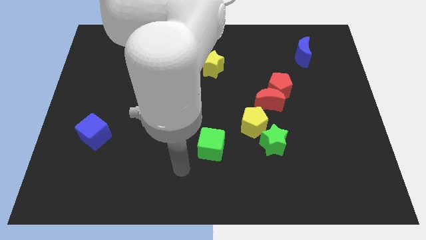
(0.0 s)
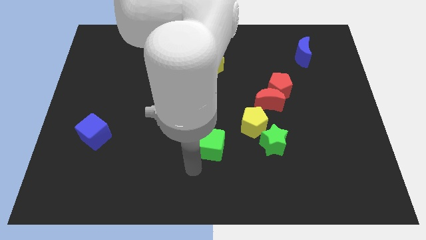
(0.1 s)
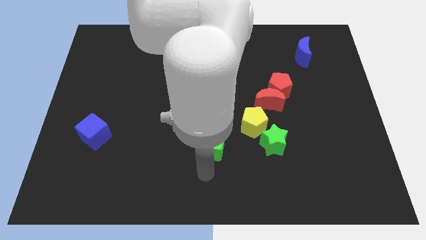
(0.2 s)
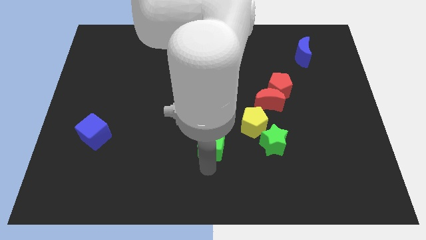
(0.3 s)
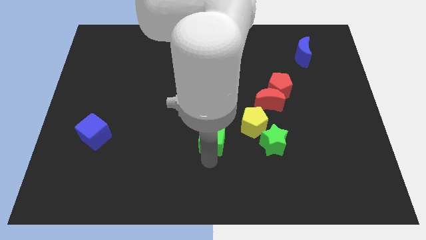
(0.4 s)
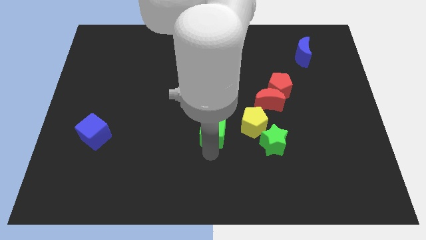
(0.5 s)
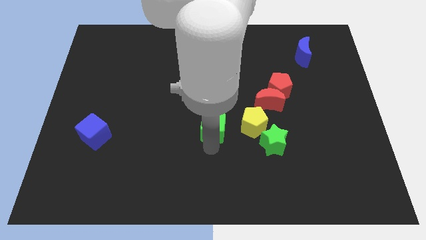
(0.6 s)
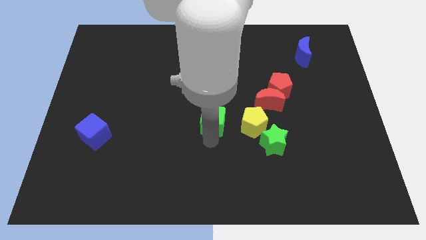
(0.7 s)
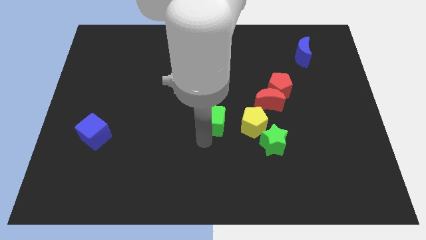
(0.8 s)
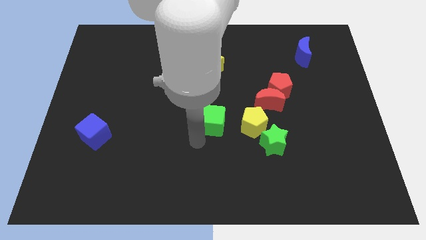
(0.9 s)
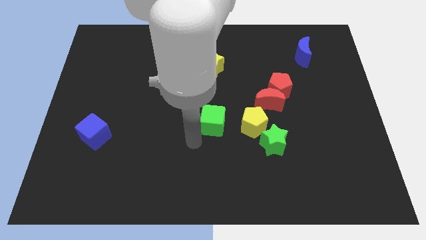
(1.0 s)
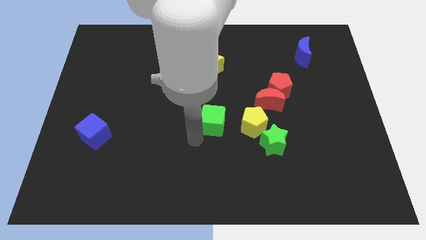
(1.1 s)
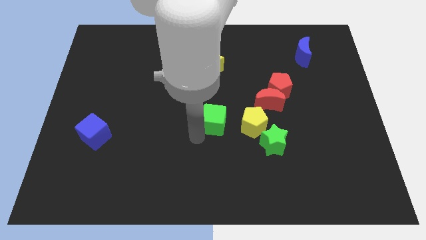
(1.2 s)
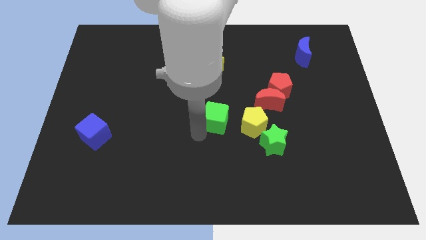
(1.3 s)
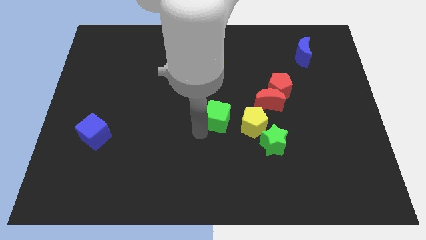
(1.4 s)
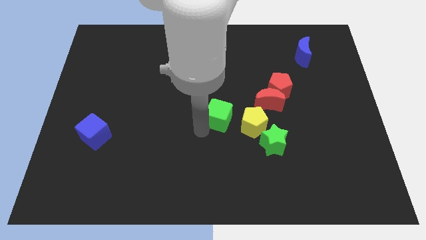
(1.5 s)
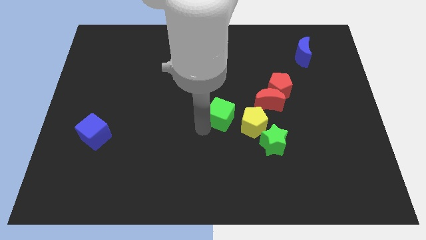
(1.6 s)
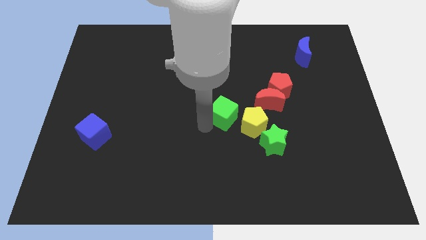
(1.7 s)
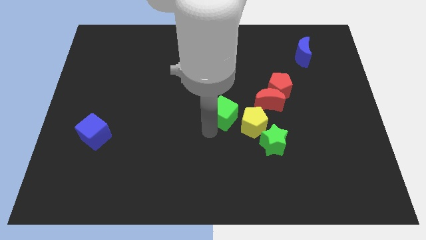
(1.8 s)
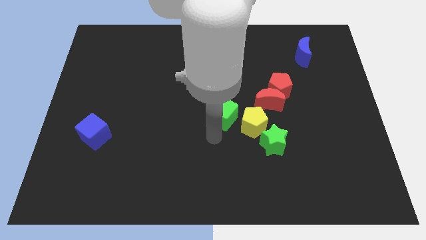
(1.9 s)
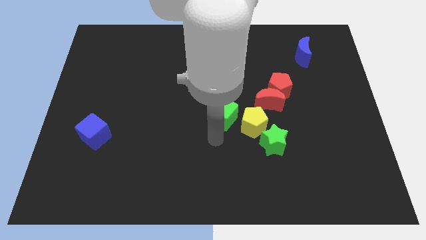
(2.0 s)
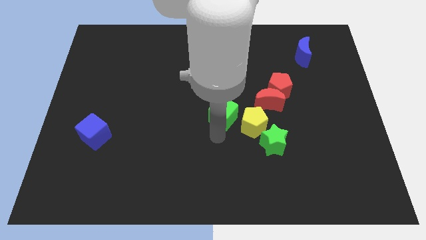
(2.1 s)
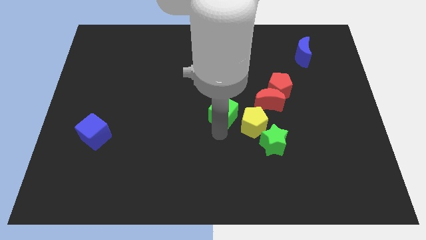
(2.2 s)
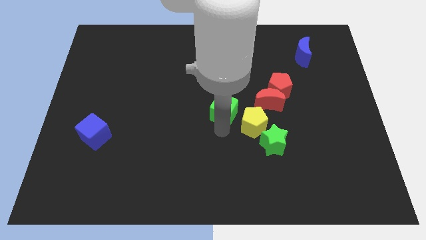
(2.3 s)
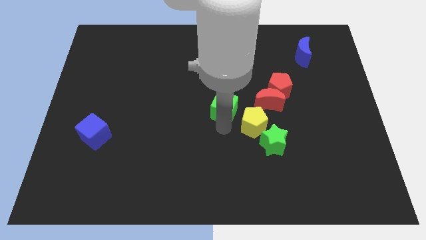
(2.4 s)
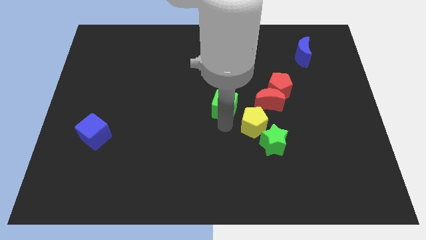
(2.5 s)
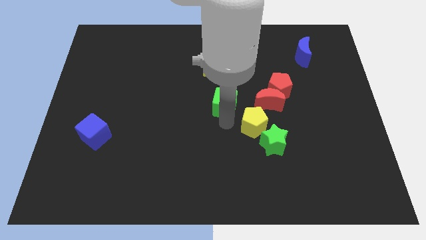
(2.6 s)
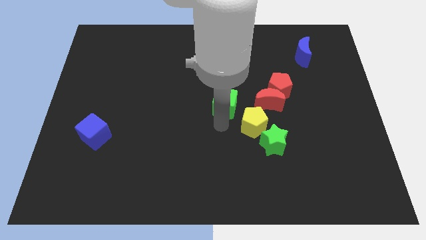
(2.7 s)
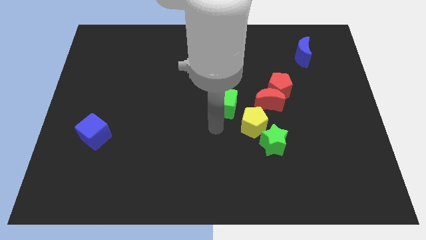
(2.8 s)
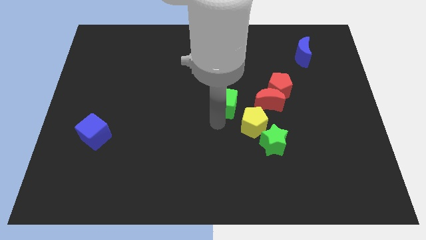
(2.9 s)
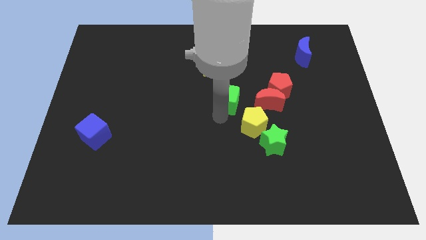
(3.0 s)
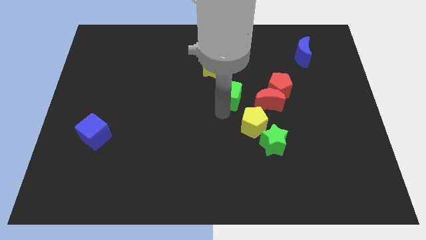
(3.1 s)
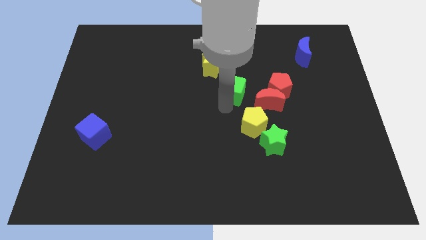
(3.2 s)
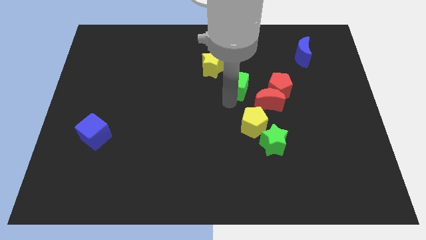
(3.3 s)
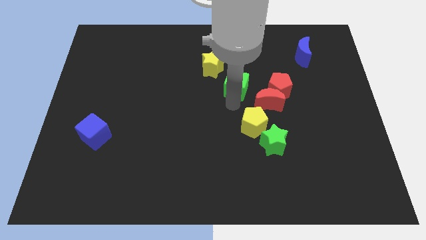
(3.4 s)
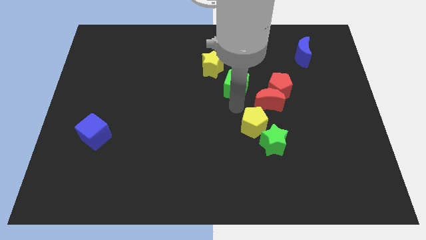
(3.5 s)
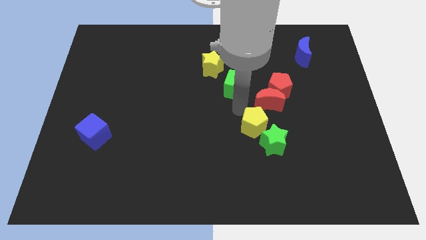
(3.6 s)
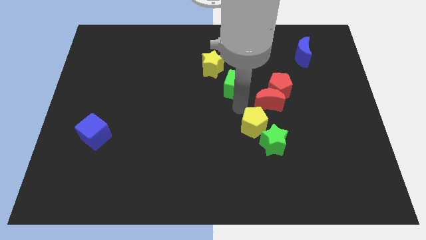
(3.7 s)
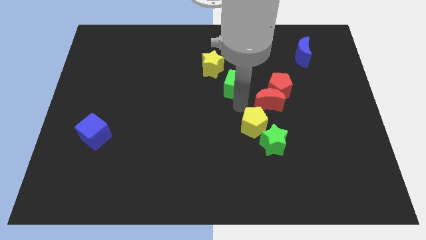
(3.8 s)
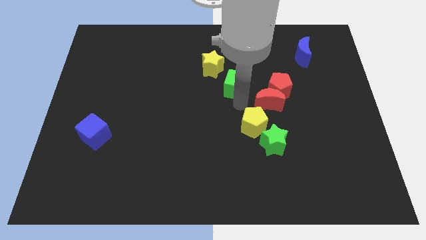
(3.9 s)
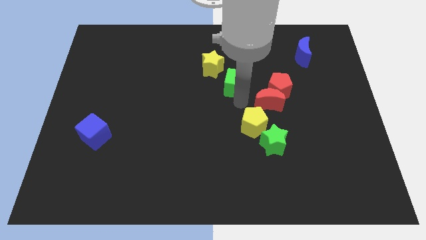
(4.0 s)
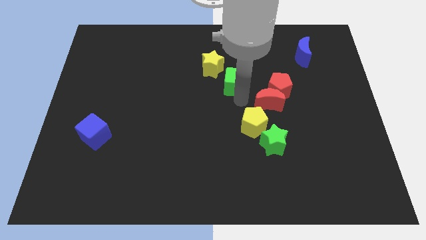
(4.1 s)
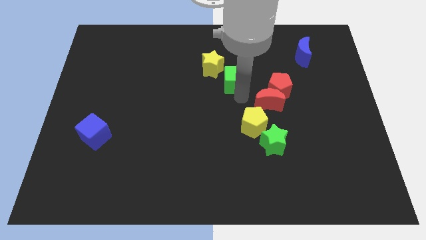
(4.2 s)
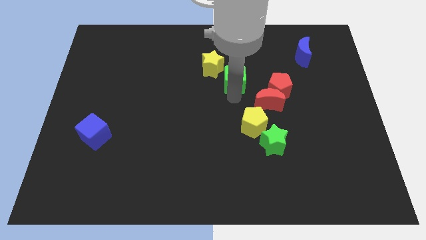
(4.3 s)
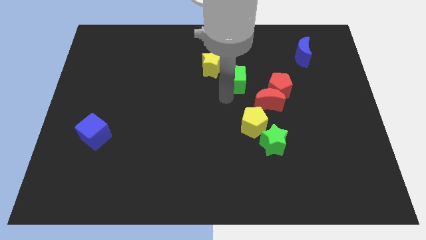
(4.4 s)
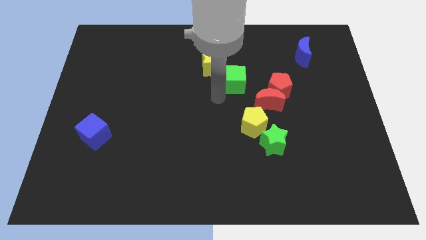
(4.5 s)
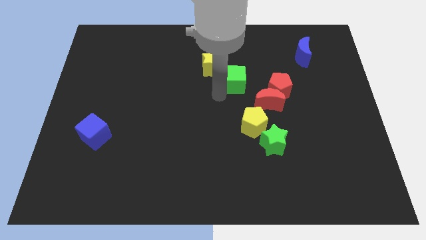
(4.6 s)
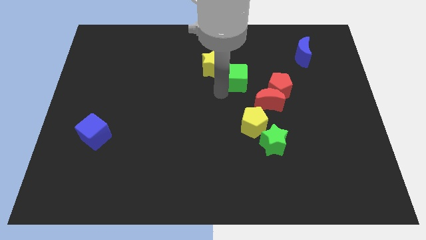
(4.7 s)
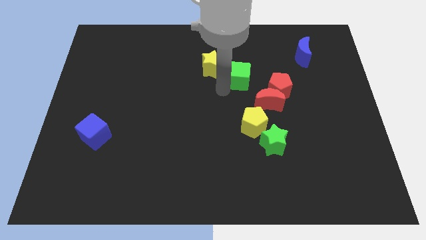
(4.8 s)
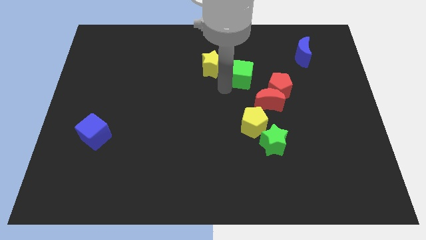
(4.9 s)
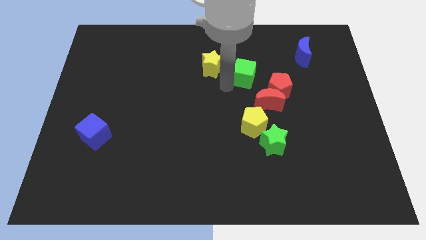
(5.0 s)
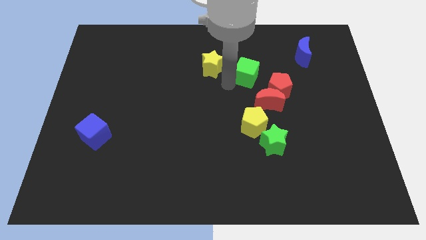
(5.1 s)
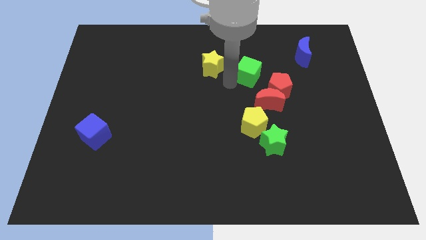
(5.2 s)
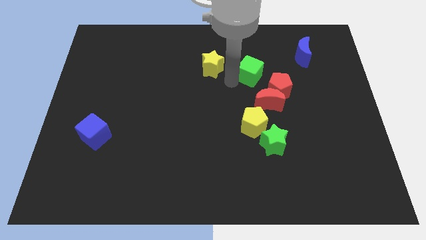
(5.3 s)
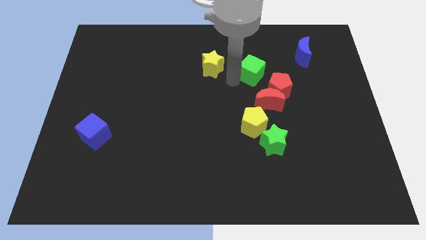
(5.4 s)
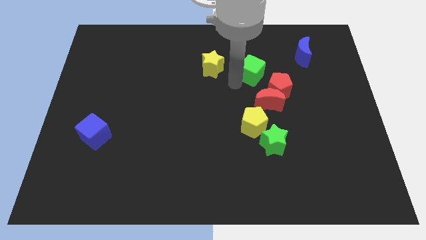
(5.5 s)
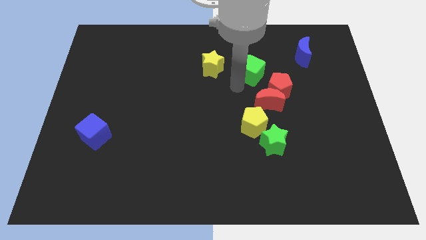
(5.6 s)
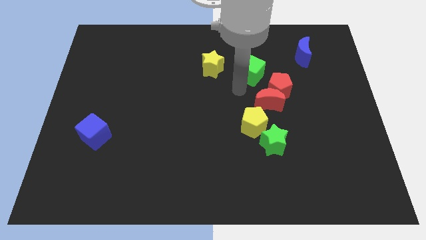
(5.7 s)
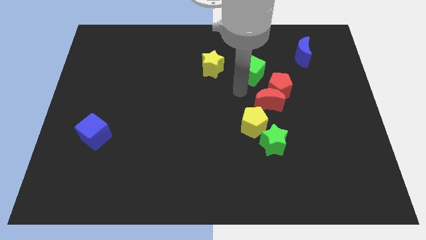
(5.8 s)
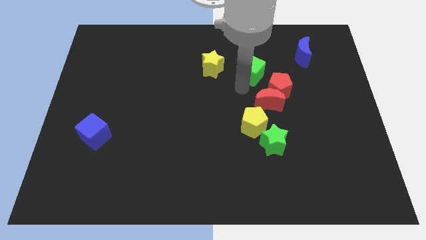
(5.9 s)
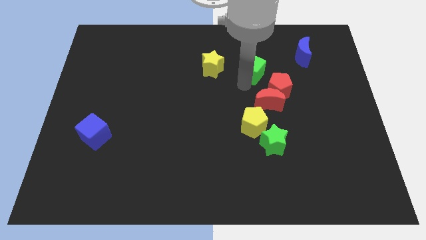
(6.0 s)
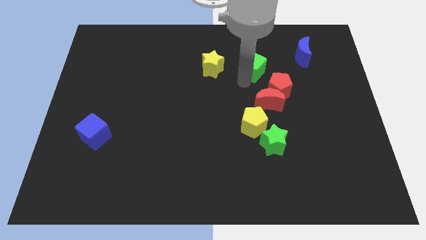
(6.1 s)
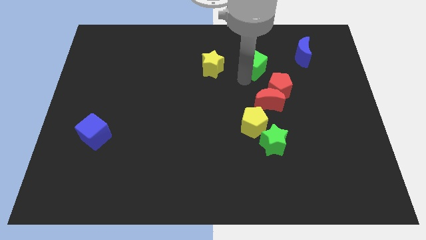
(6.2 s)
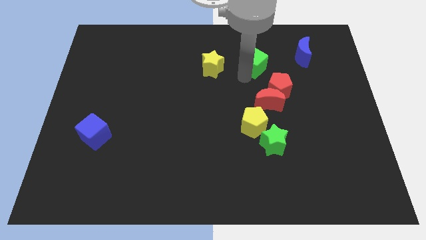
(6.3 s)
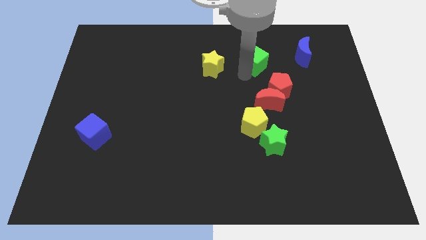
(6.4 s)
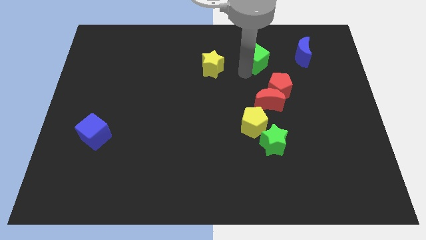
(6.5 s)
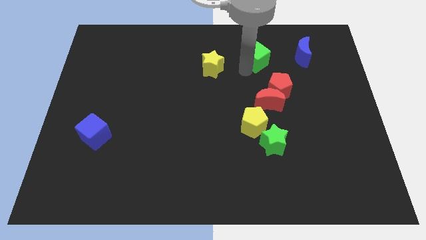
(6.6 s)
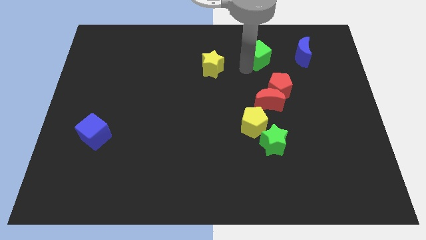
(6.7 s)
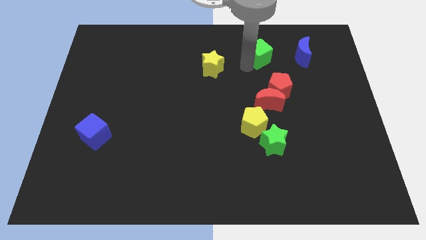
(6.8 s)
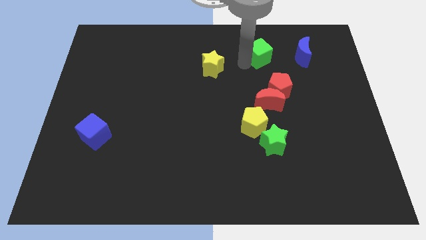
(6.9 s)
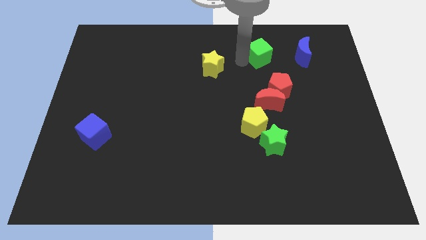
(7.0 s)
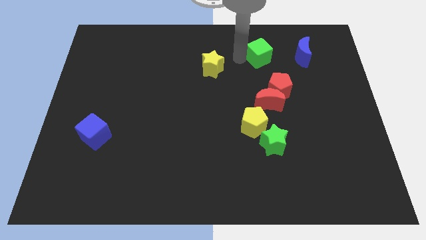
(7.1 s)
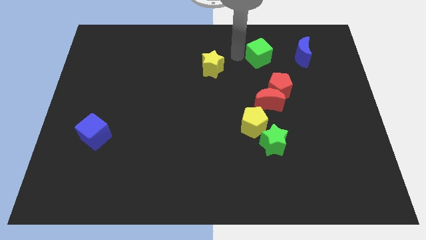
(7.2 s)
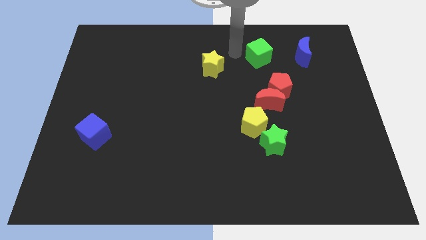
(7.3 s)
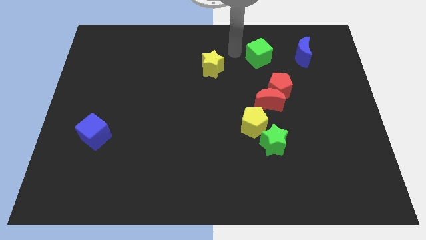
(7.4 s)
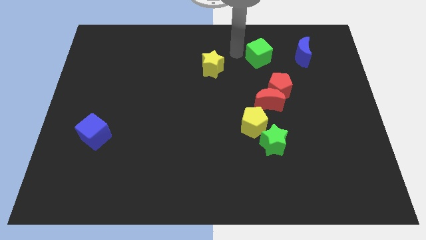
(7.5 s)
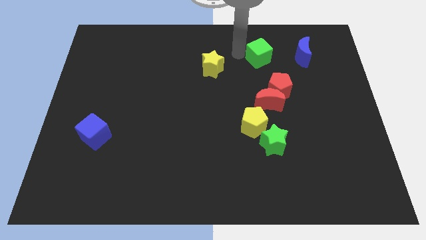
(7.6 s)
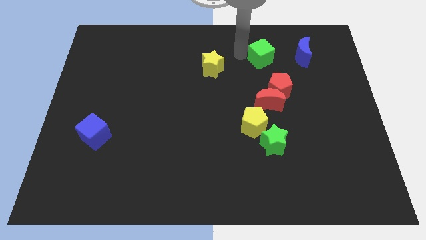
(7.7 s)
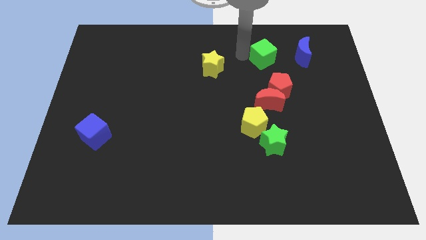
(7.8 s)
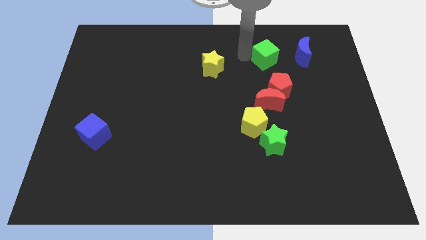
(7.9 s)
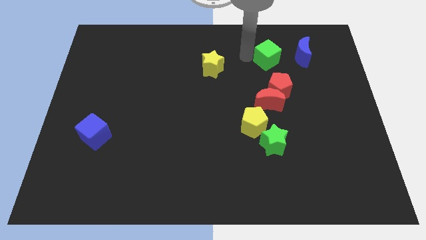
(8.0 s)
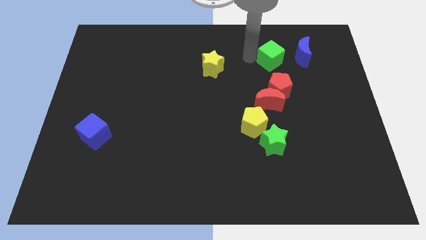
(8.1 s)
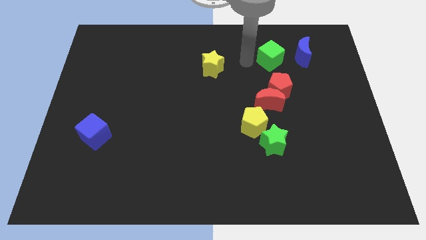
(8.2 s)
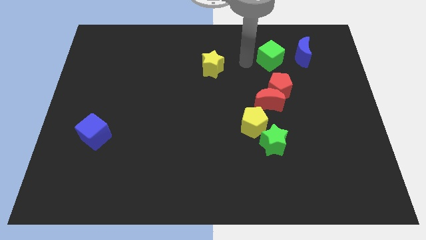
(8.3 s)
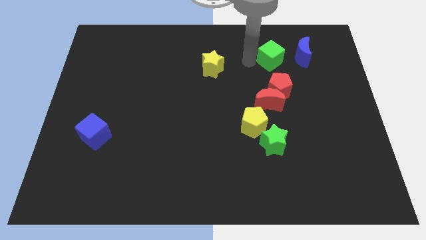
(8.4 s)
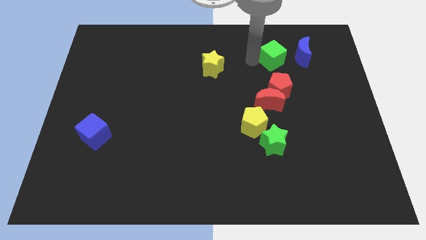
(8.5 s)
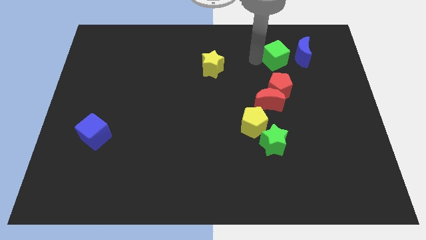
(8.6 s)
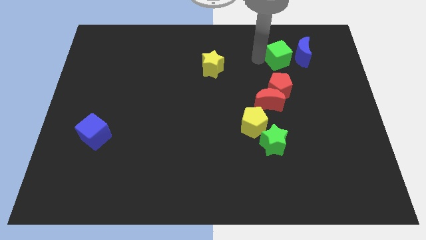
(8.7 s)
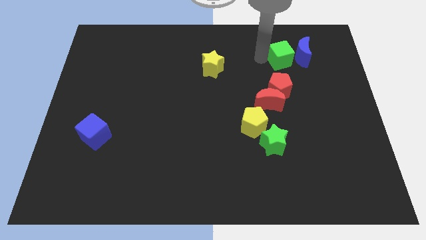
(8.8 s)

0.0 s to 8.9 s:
slide the green cube towards the blue moon
